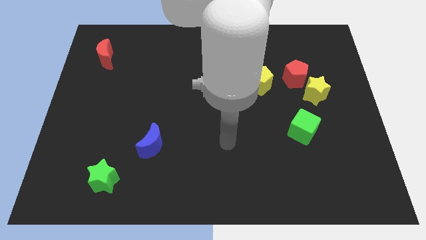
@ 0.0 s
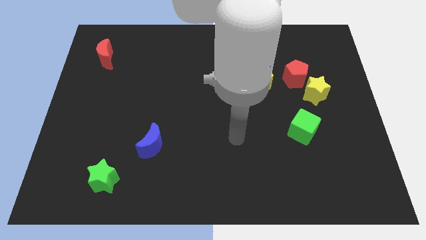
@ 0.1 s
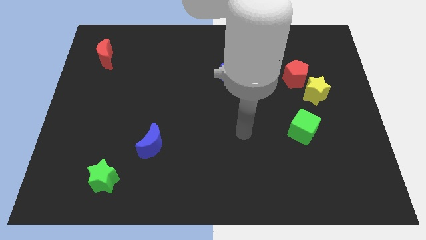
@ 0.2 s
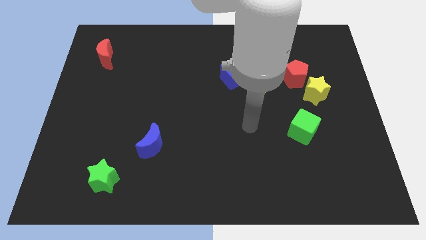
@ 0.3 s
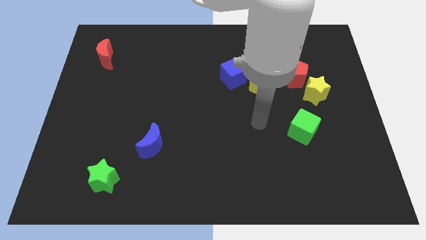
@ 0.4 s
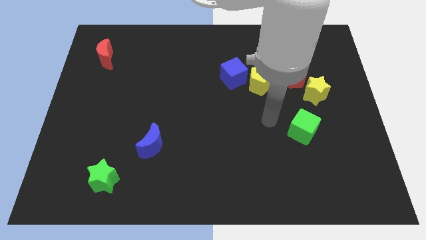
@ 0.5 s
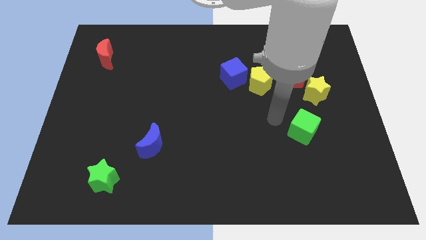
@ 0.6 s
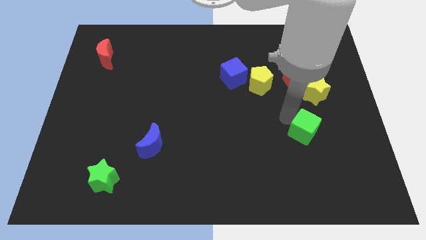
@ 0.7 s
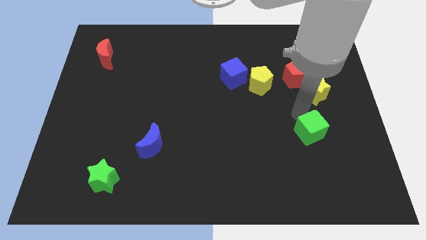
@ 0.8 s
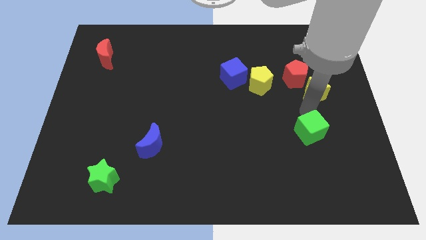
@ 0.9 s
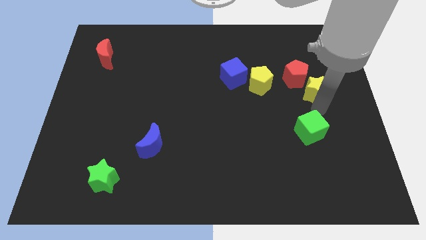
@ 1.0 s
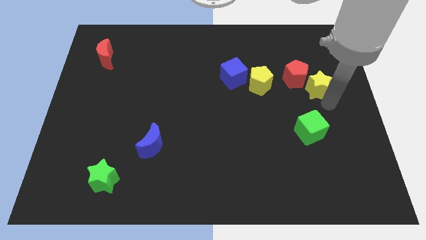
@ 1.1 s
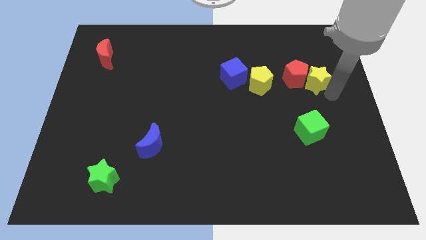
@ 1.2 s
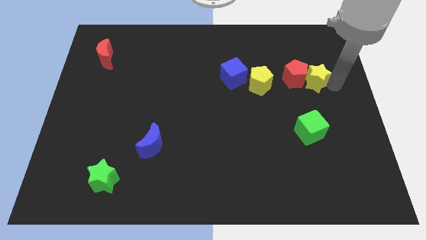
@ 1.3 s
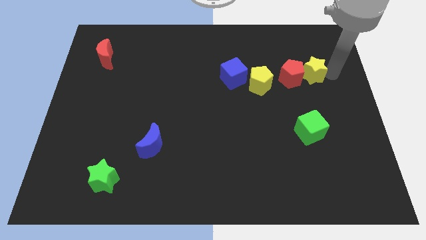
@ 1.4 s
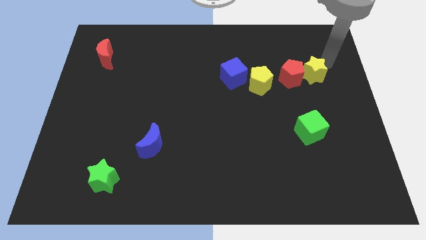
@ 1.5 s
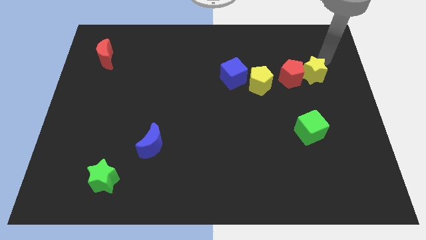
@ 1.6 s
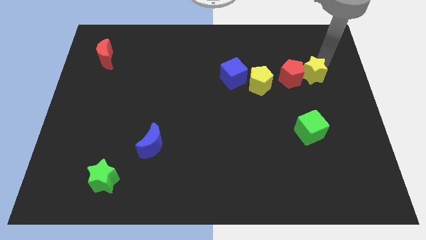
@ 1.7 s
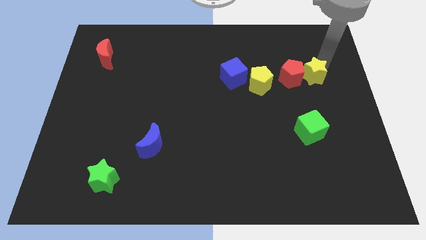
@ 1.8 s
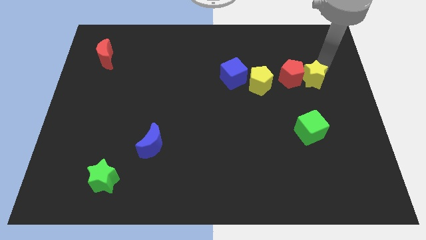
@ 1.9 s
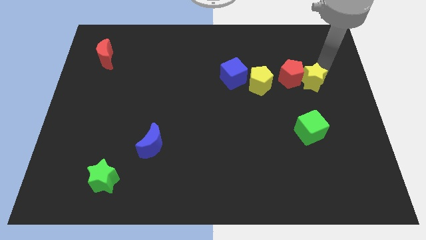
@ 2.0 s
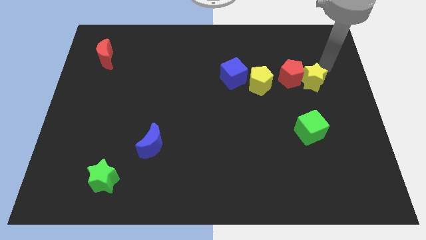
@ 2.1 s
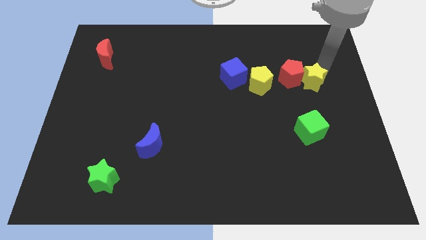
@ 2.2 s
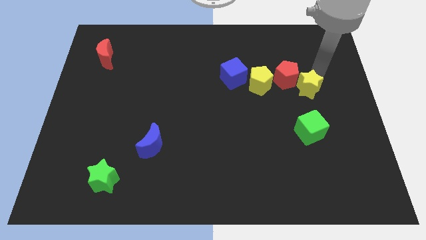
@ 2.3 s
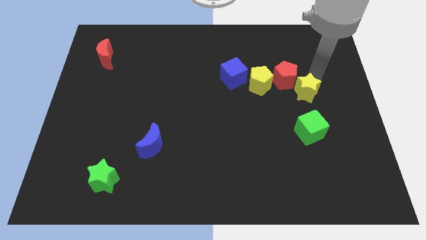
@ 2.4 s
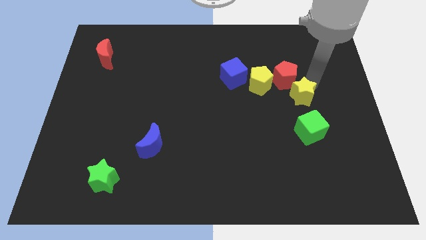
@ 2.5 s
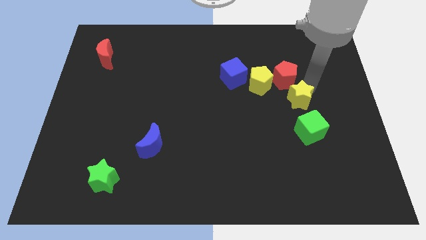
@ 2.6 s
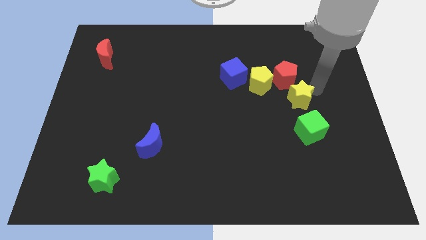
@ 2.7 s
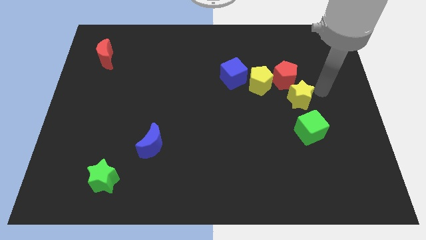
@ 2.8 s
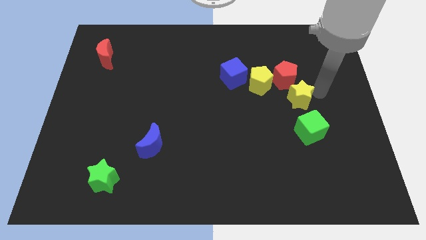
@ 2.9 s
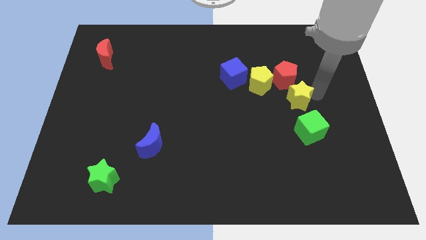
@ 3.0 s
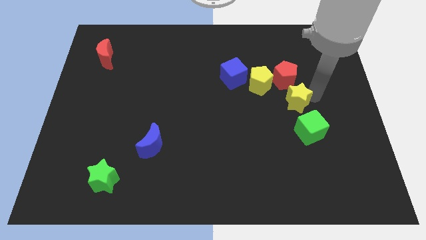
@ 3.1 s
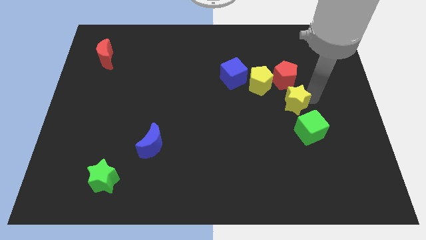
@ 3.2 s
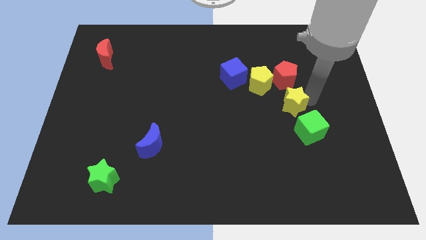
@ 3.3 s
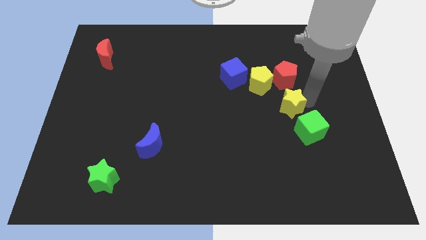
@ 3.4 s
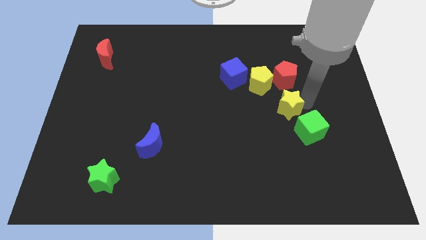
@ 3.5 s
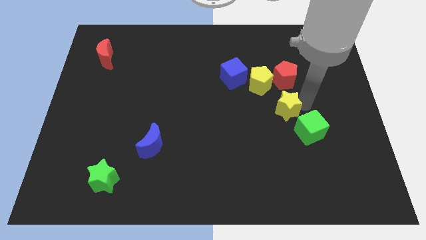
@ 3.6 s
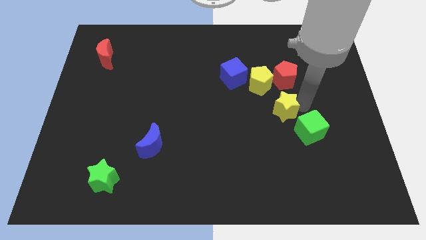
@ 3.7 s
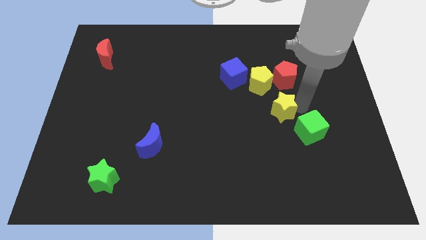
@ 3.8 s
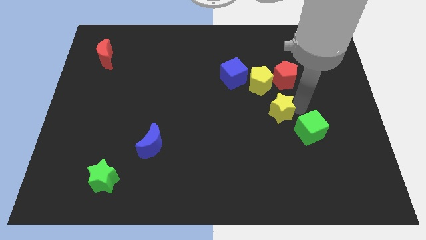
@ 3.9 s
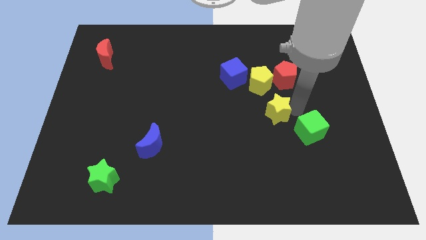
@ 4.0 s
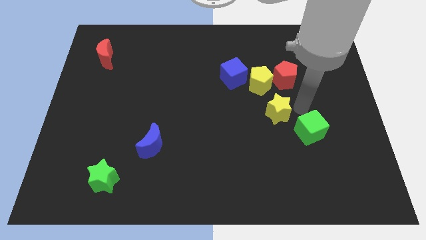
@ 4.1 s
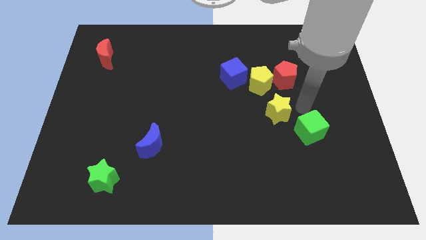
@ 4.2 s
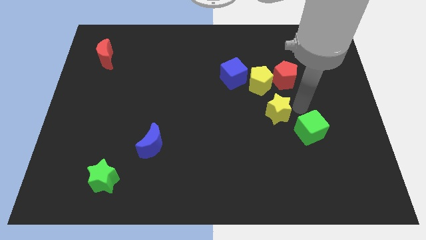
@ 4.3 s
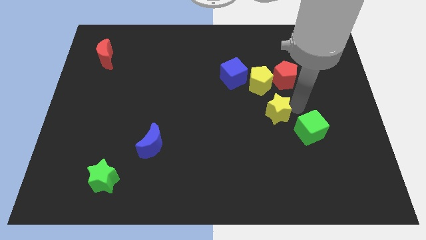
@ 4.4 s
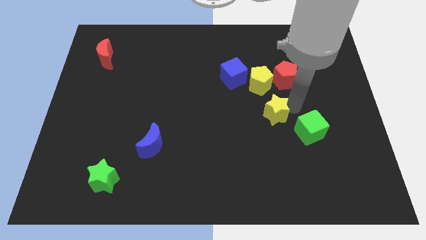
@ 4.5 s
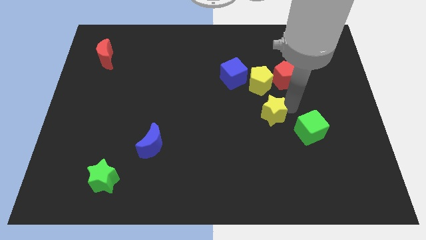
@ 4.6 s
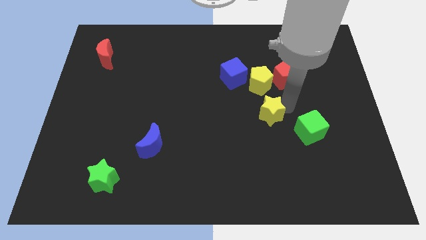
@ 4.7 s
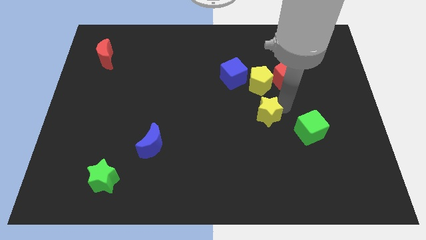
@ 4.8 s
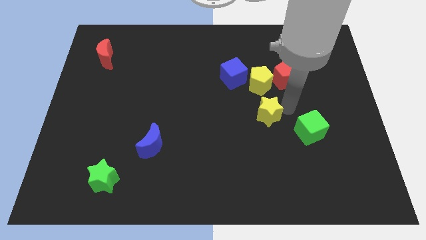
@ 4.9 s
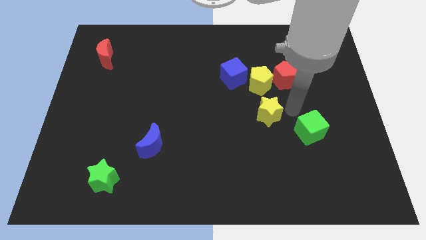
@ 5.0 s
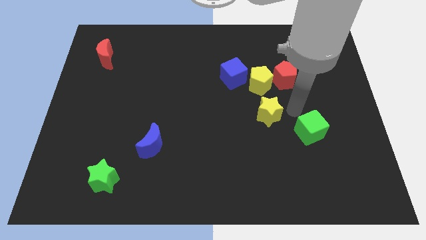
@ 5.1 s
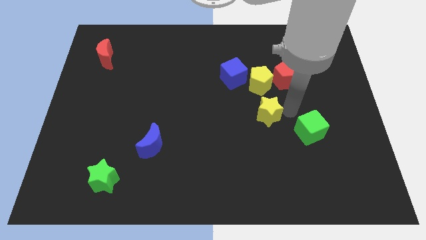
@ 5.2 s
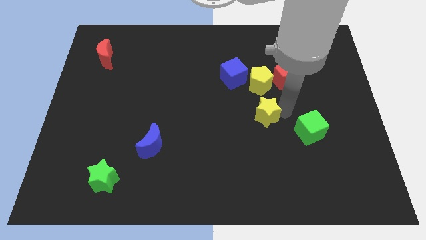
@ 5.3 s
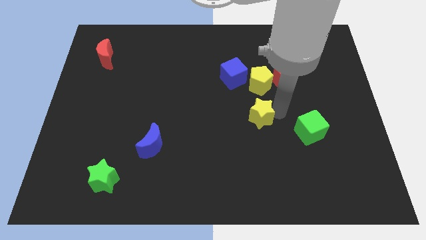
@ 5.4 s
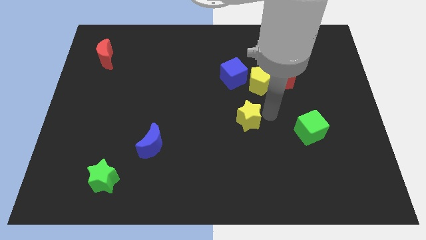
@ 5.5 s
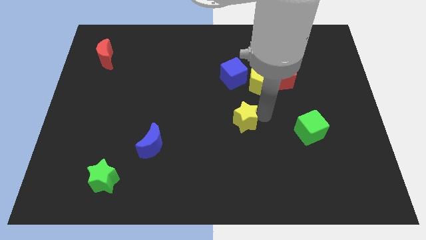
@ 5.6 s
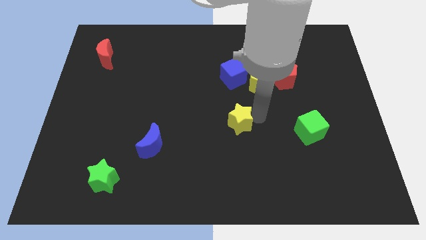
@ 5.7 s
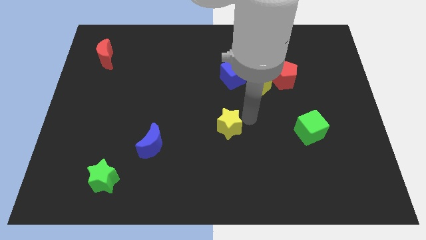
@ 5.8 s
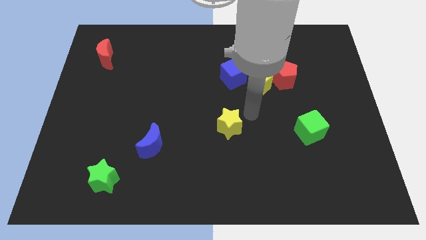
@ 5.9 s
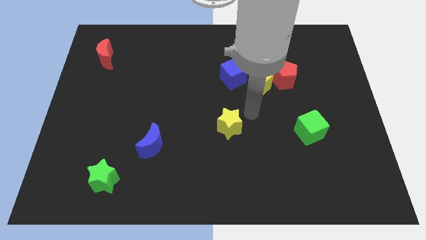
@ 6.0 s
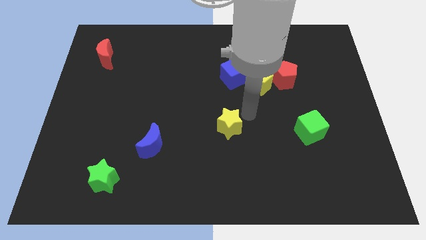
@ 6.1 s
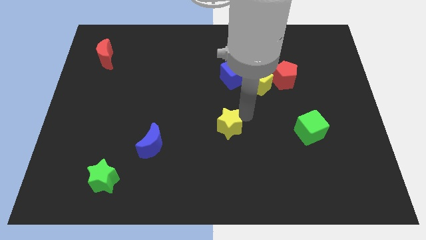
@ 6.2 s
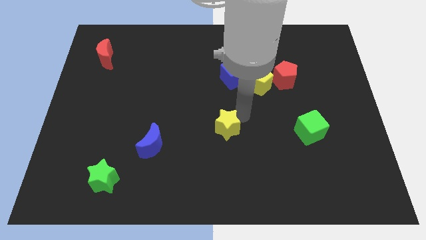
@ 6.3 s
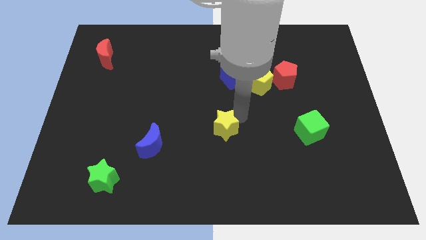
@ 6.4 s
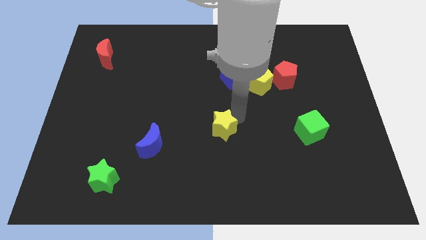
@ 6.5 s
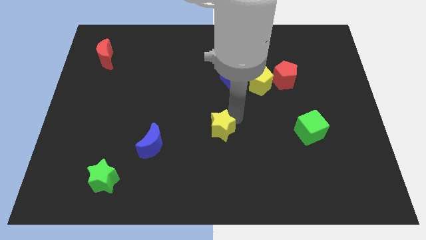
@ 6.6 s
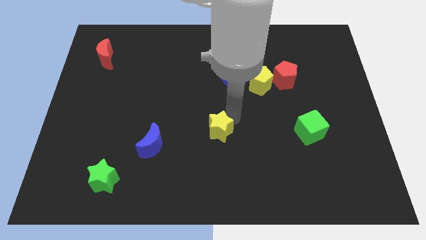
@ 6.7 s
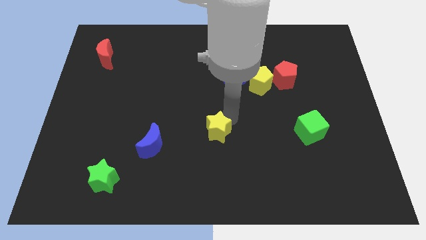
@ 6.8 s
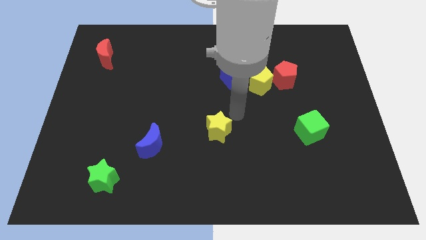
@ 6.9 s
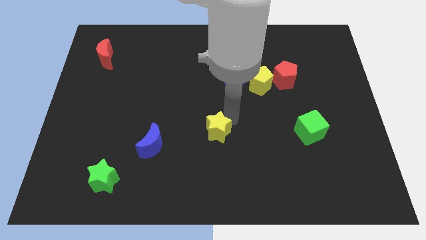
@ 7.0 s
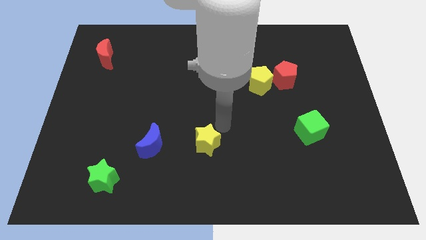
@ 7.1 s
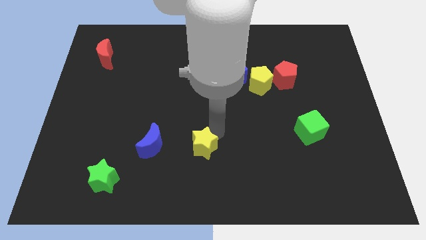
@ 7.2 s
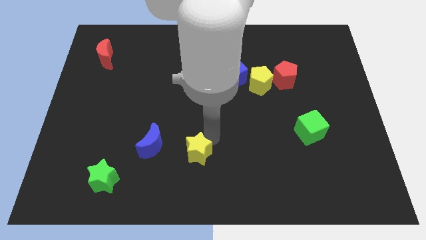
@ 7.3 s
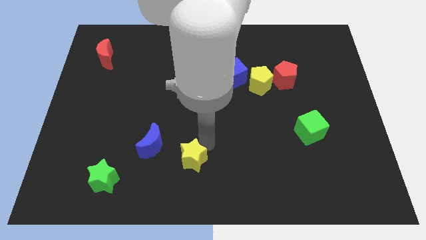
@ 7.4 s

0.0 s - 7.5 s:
move the yellow star to the bottom right side of the blue moon
